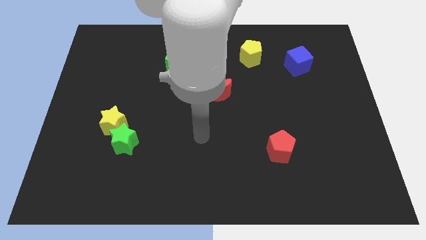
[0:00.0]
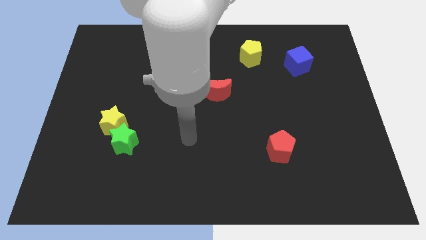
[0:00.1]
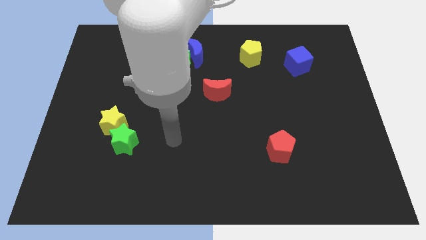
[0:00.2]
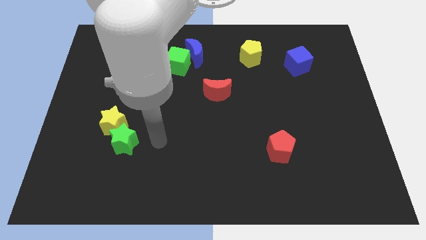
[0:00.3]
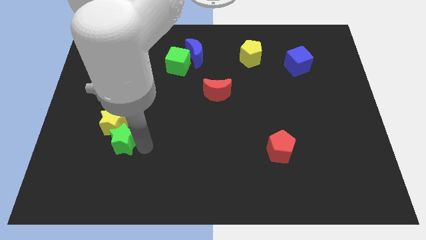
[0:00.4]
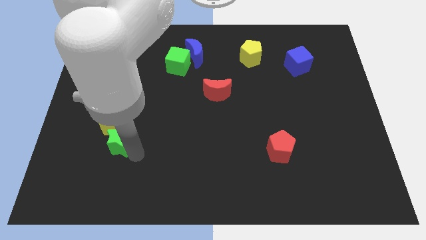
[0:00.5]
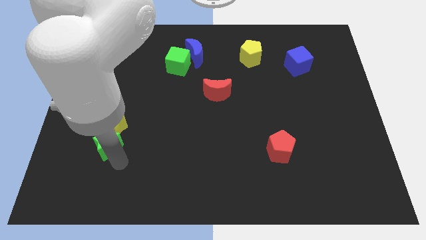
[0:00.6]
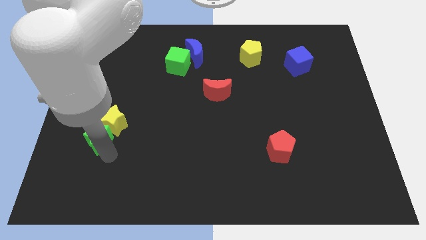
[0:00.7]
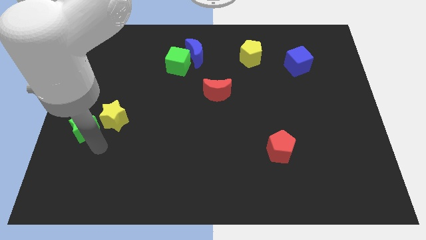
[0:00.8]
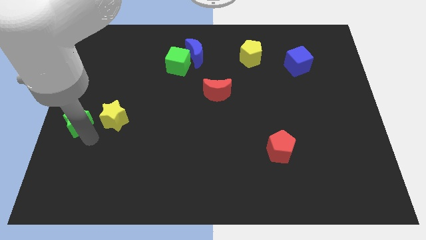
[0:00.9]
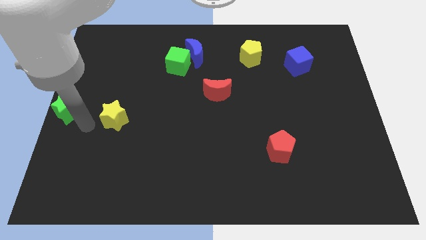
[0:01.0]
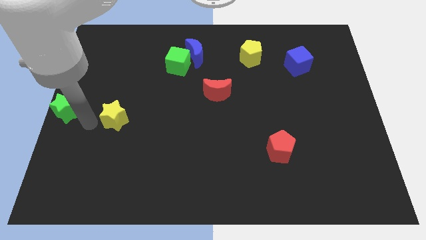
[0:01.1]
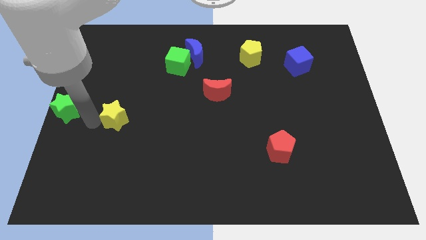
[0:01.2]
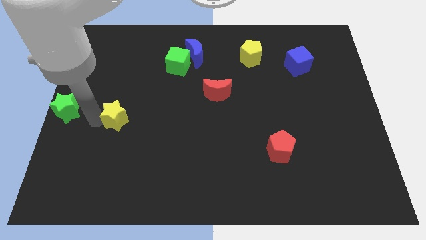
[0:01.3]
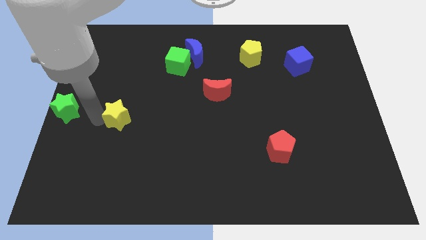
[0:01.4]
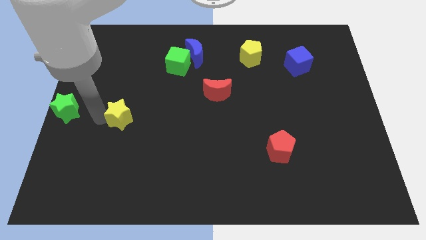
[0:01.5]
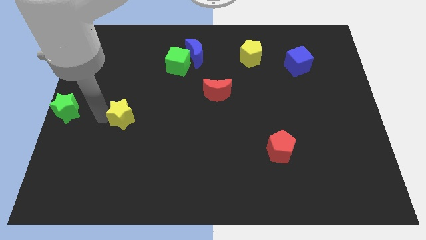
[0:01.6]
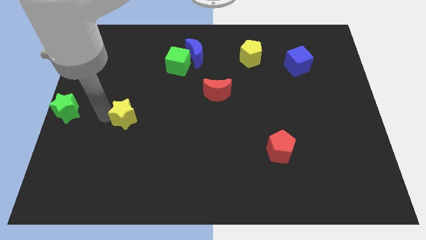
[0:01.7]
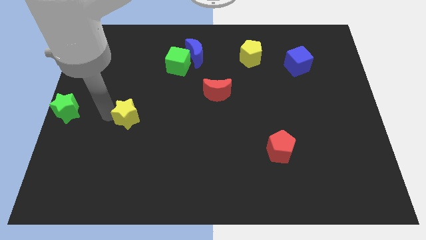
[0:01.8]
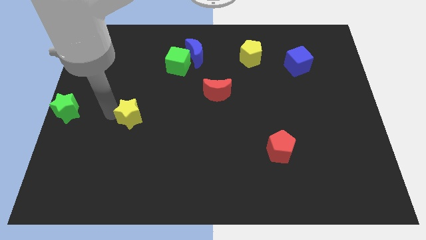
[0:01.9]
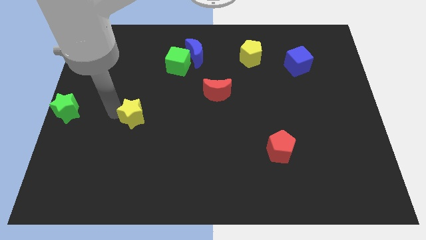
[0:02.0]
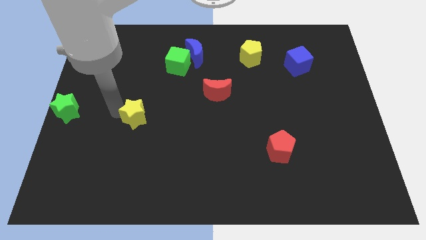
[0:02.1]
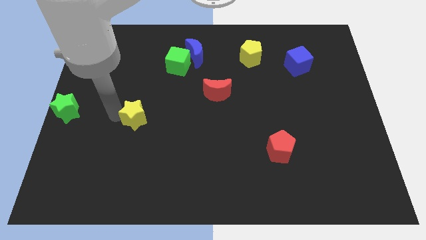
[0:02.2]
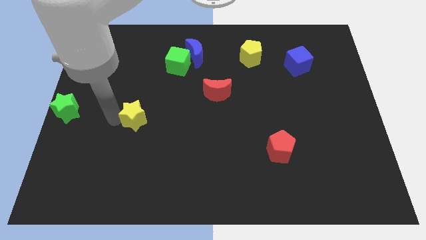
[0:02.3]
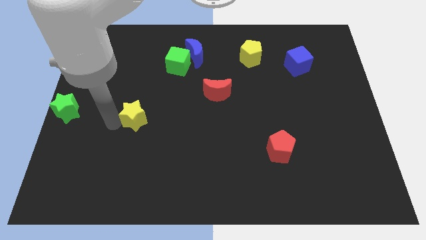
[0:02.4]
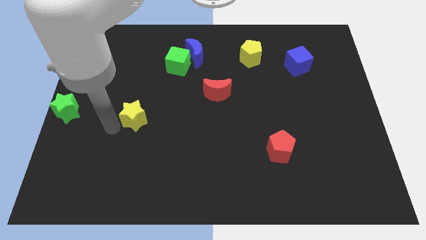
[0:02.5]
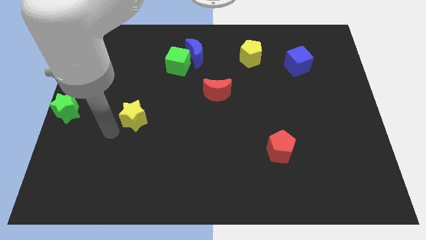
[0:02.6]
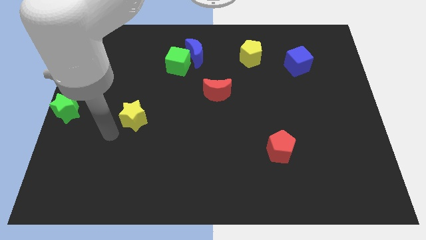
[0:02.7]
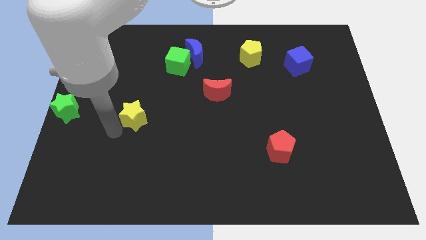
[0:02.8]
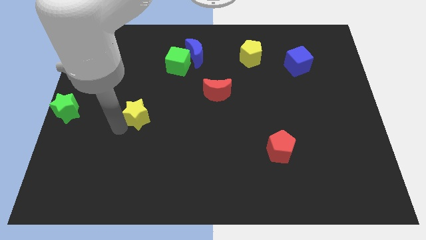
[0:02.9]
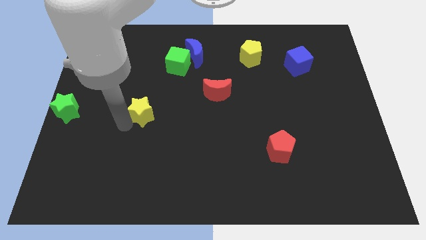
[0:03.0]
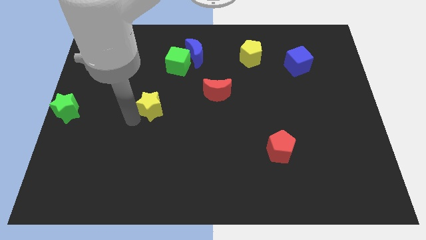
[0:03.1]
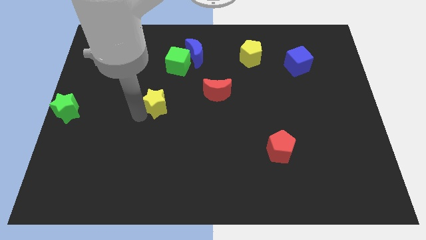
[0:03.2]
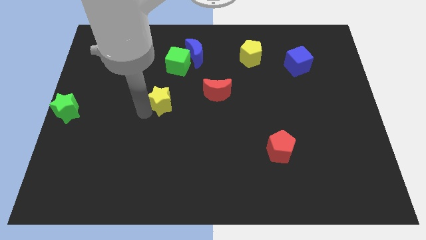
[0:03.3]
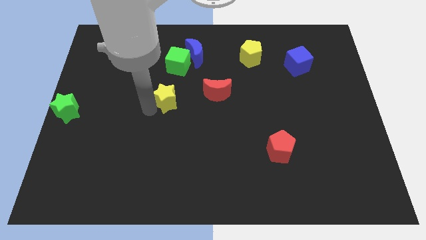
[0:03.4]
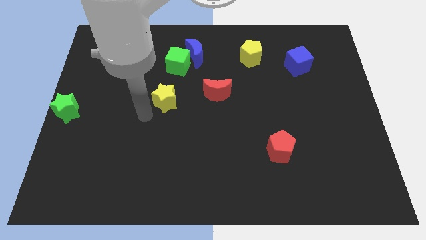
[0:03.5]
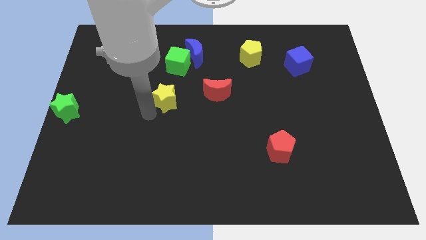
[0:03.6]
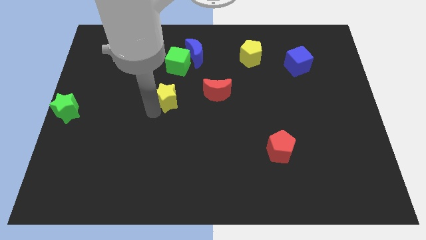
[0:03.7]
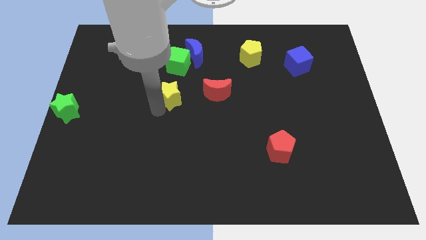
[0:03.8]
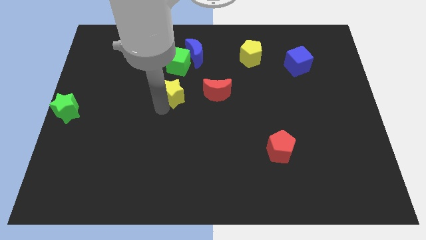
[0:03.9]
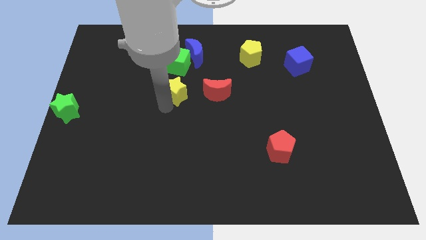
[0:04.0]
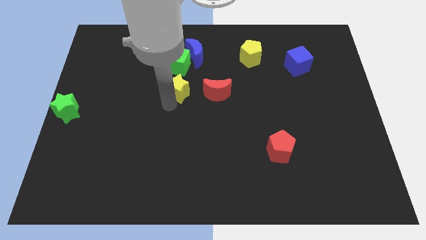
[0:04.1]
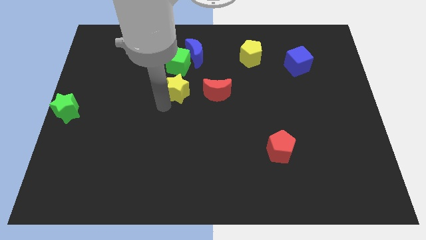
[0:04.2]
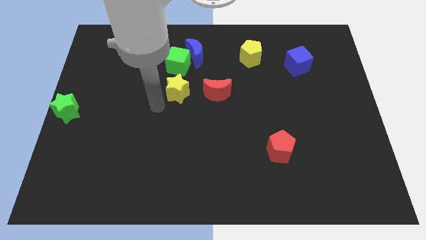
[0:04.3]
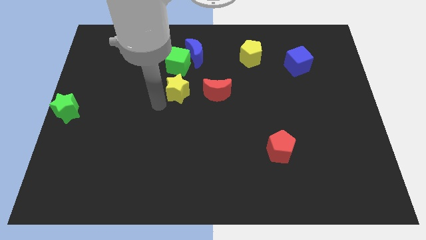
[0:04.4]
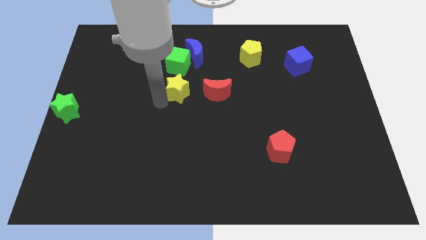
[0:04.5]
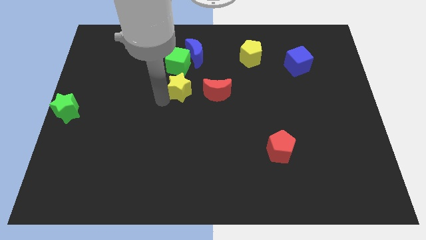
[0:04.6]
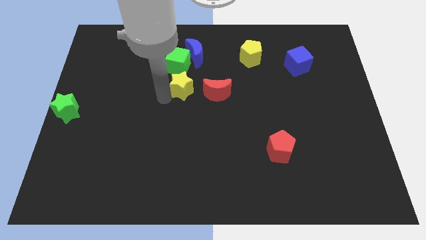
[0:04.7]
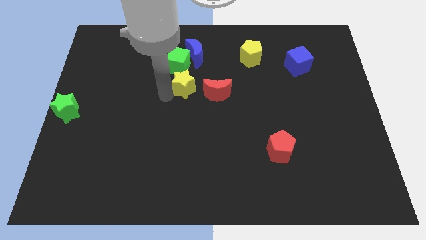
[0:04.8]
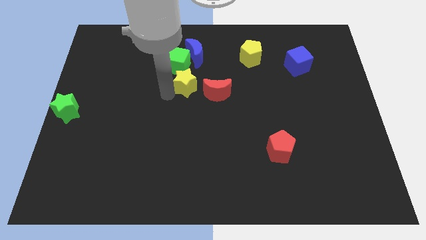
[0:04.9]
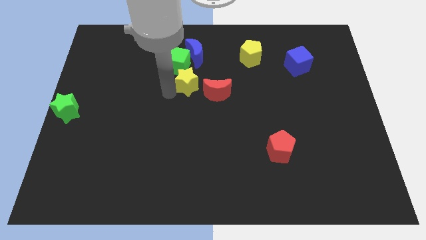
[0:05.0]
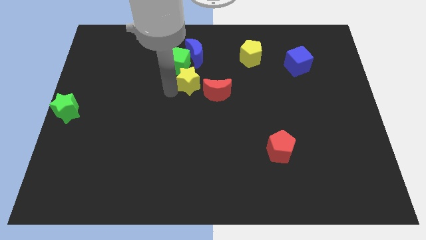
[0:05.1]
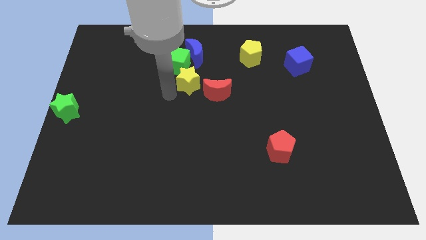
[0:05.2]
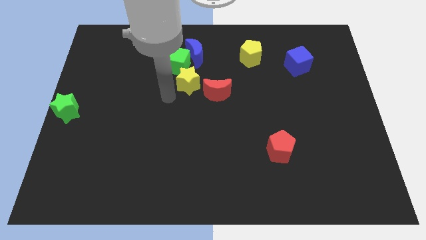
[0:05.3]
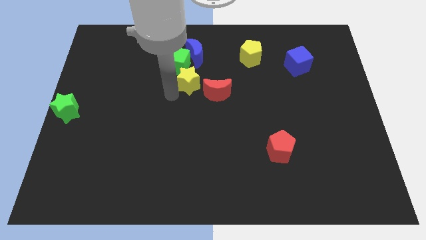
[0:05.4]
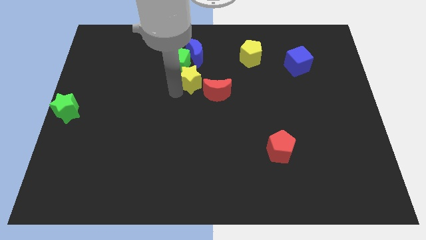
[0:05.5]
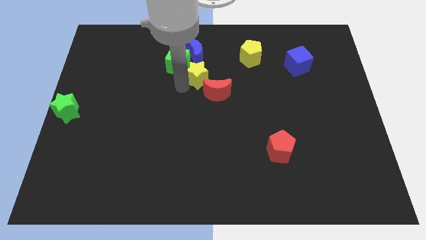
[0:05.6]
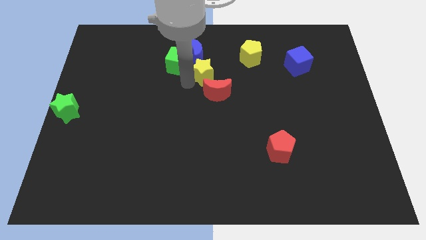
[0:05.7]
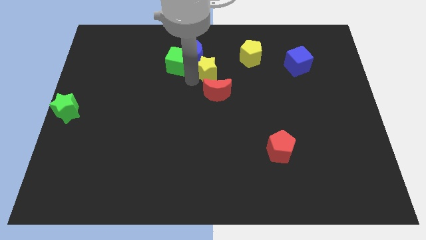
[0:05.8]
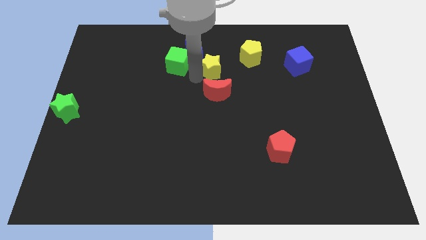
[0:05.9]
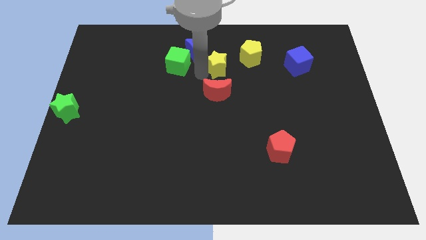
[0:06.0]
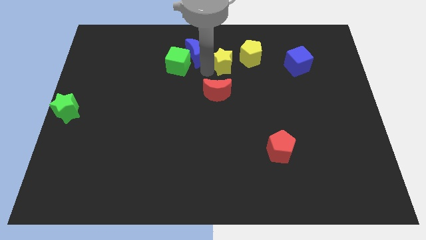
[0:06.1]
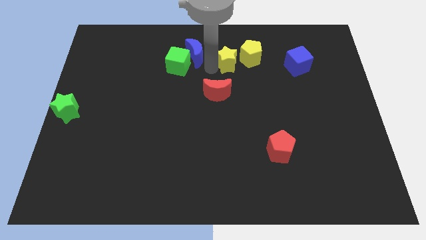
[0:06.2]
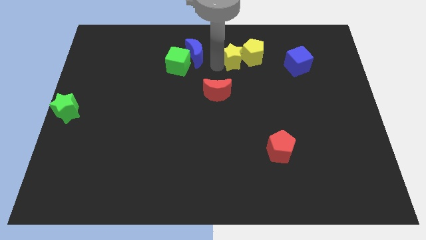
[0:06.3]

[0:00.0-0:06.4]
put the yellow star to the yellow pentagon

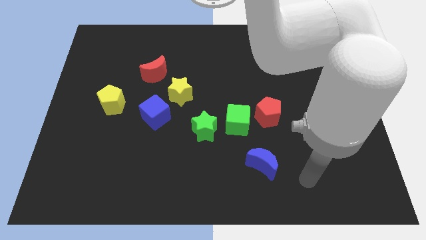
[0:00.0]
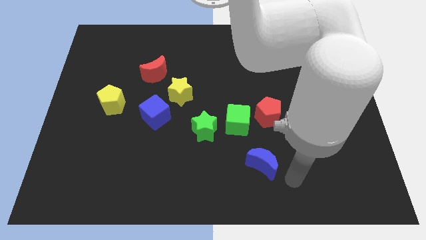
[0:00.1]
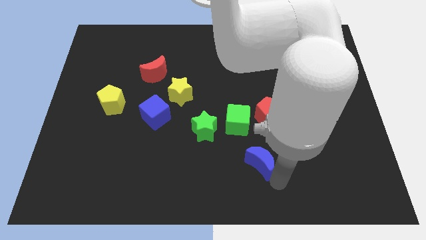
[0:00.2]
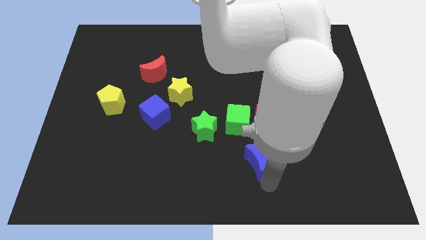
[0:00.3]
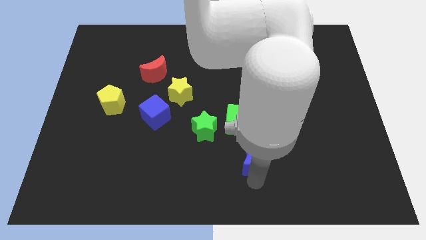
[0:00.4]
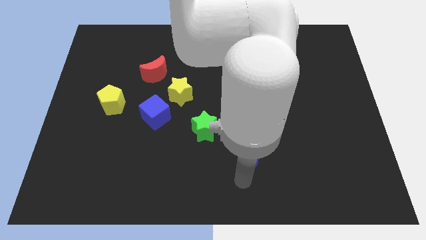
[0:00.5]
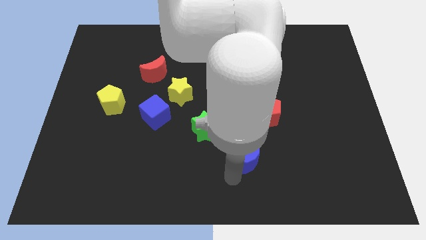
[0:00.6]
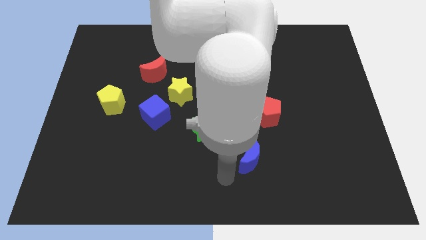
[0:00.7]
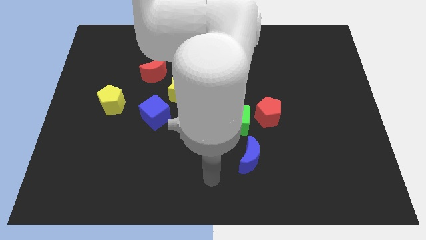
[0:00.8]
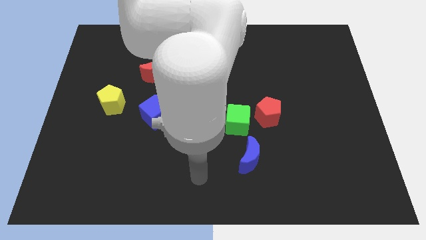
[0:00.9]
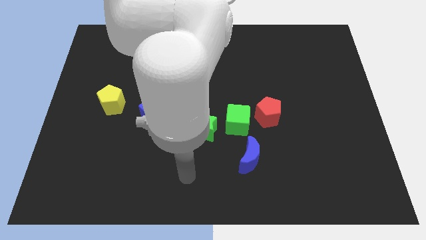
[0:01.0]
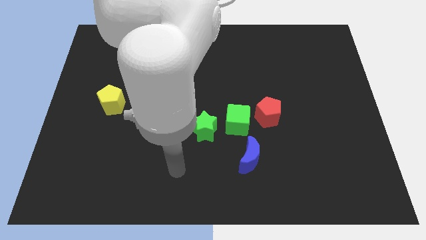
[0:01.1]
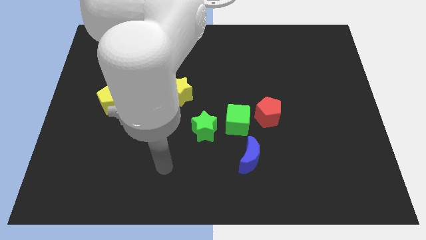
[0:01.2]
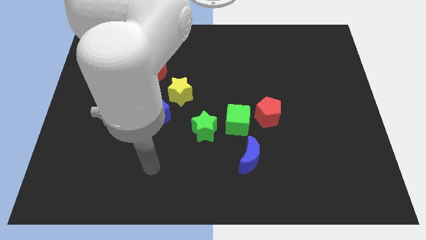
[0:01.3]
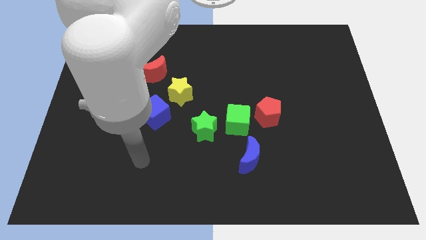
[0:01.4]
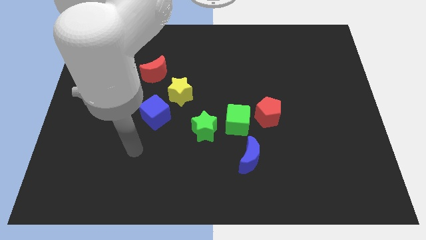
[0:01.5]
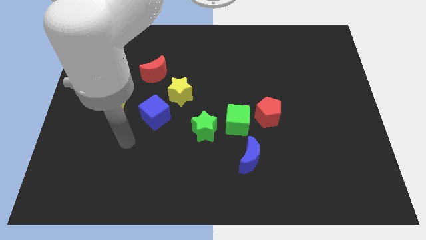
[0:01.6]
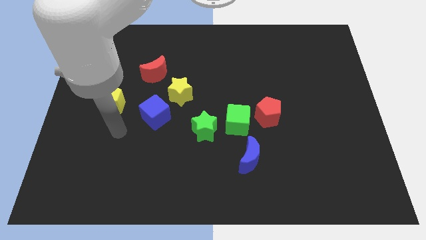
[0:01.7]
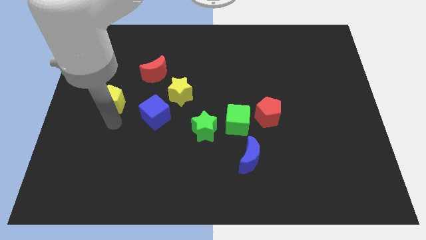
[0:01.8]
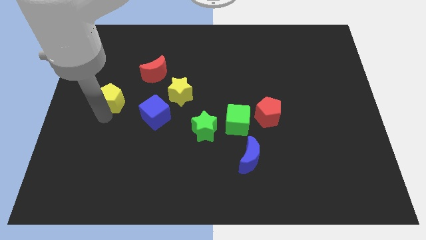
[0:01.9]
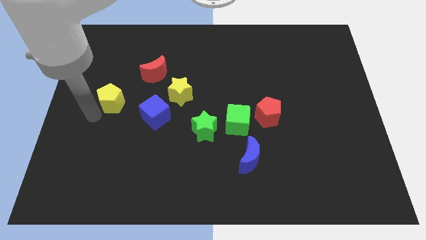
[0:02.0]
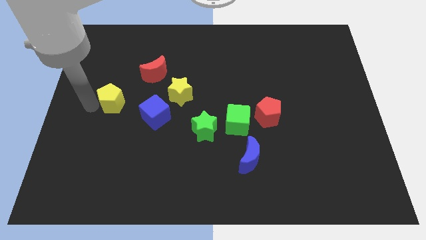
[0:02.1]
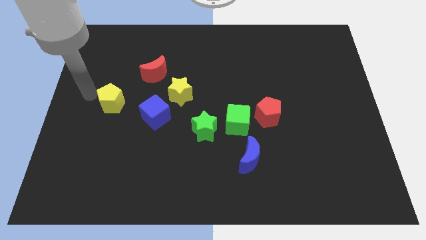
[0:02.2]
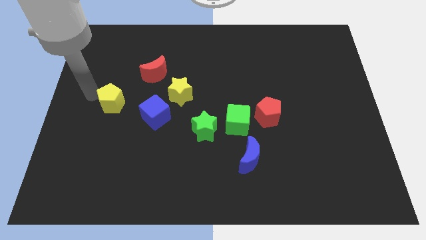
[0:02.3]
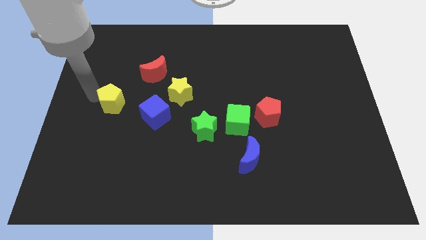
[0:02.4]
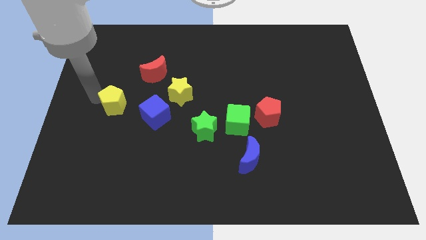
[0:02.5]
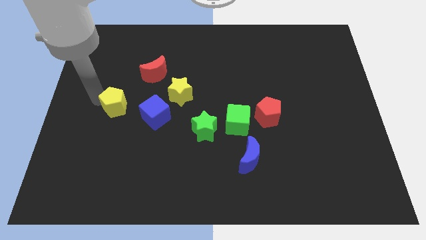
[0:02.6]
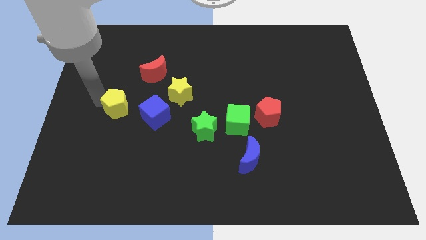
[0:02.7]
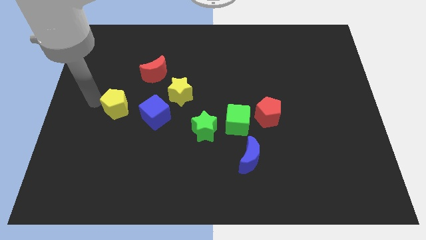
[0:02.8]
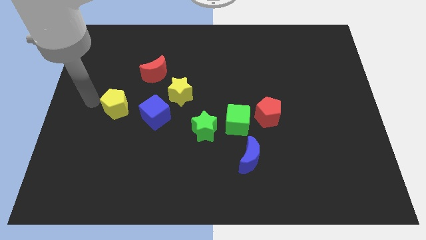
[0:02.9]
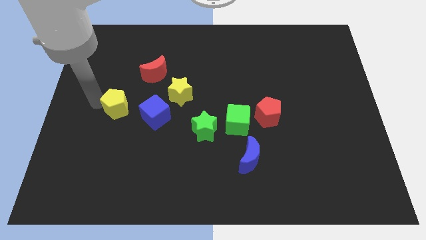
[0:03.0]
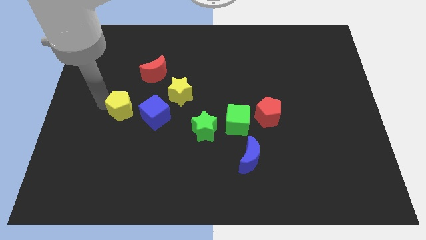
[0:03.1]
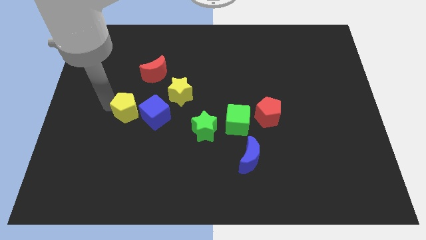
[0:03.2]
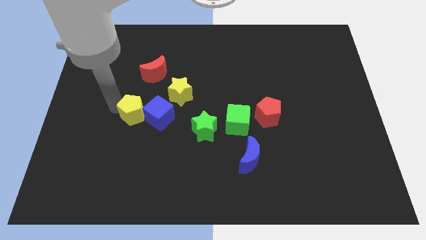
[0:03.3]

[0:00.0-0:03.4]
put the yellow pentagon towards the blue cube
